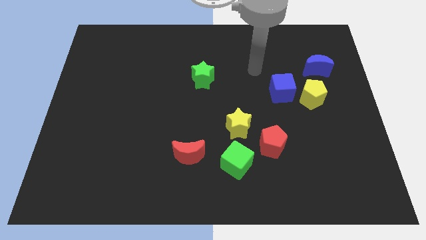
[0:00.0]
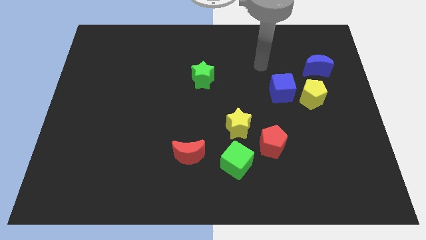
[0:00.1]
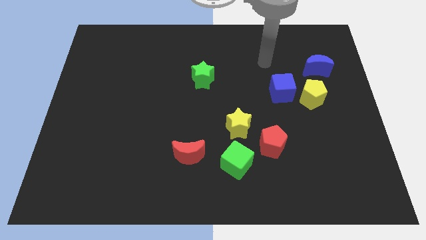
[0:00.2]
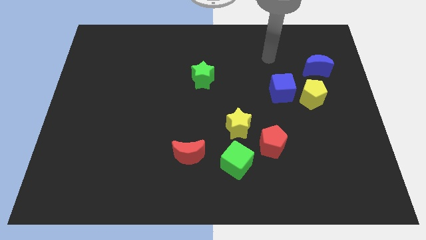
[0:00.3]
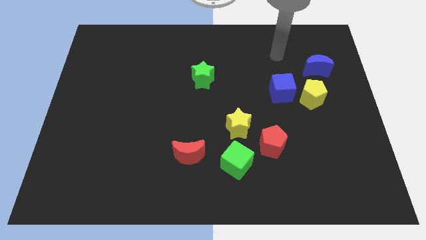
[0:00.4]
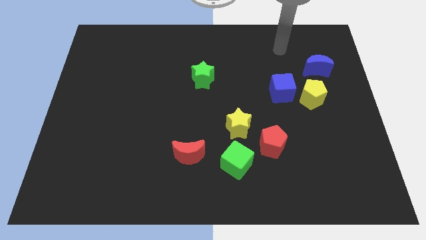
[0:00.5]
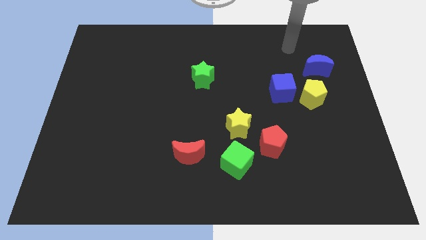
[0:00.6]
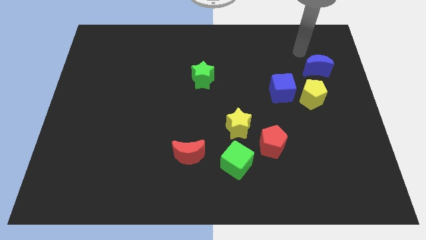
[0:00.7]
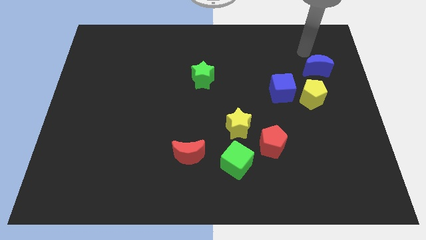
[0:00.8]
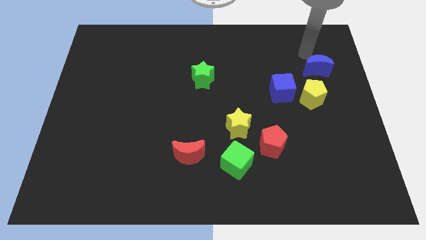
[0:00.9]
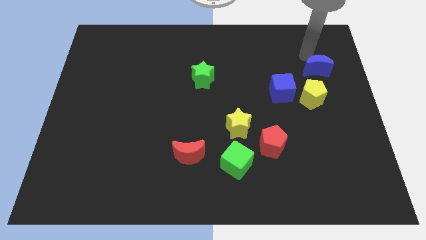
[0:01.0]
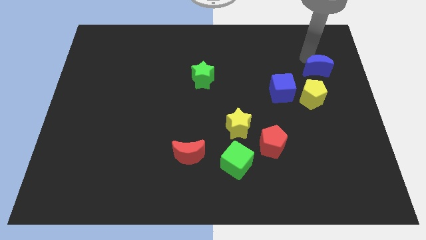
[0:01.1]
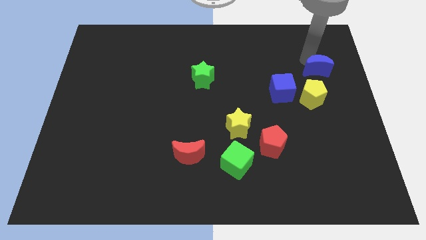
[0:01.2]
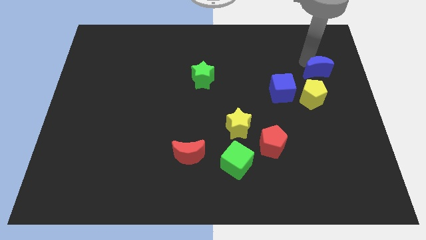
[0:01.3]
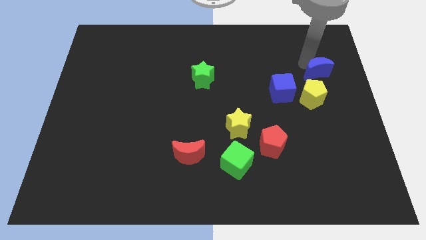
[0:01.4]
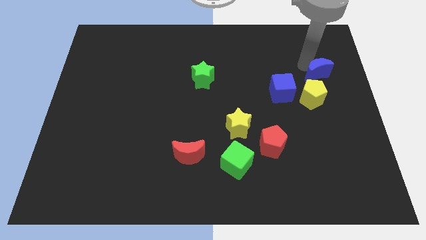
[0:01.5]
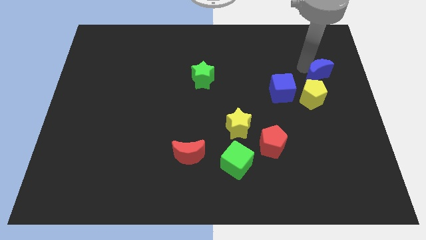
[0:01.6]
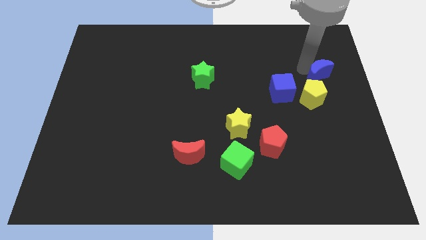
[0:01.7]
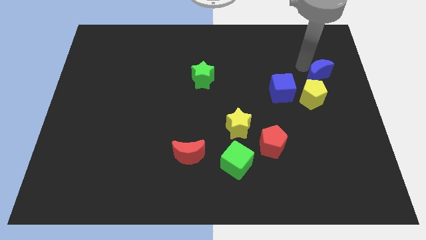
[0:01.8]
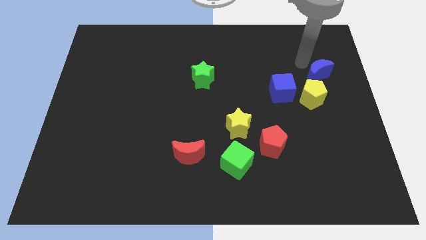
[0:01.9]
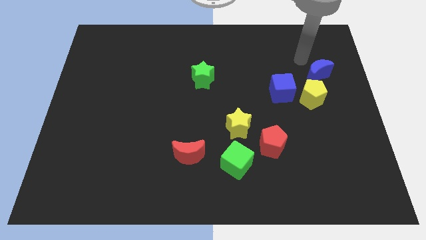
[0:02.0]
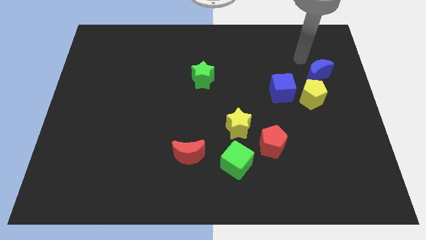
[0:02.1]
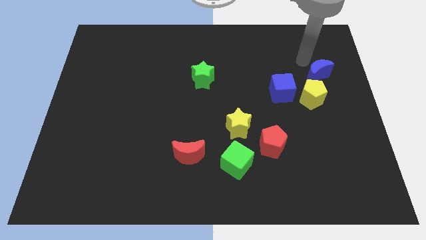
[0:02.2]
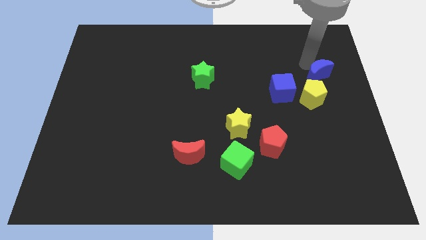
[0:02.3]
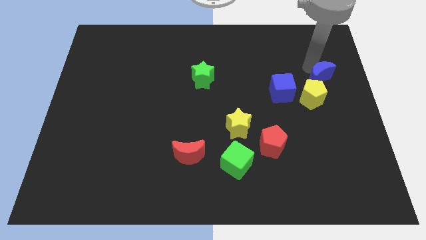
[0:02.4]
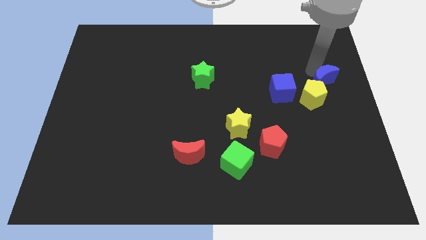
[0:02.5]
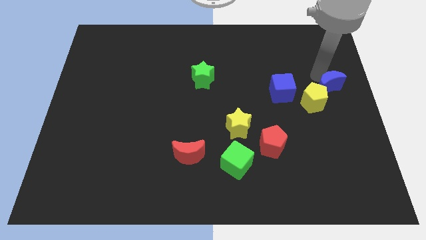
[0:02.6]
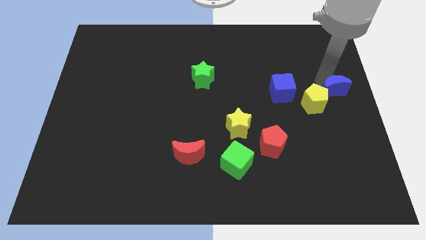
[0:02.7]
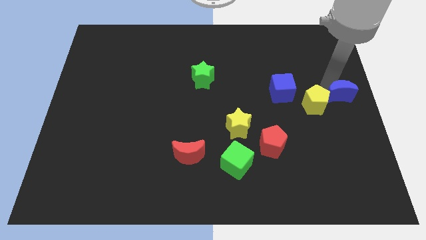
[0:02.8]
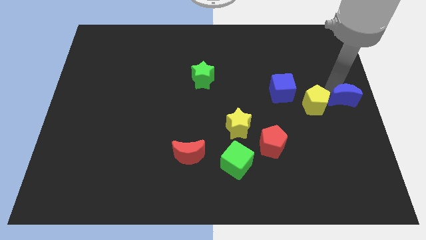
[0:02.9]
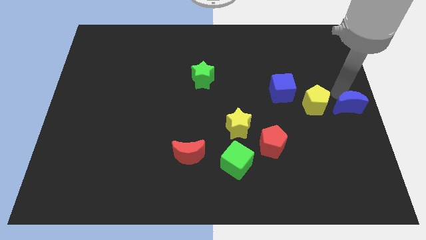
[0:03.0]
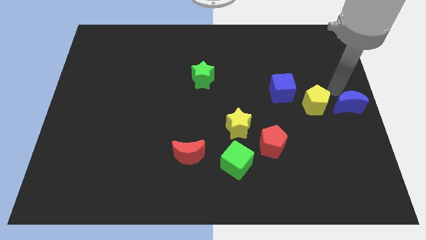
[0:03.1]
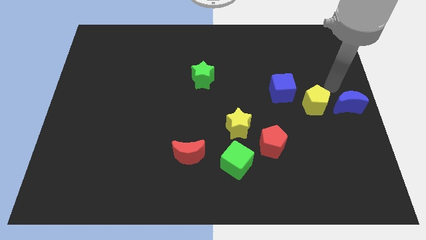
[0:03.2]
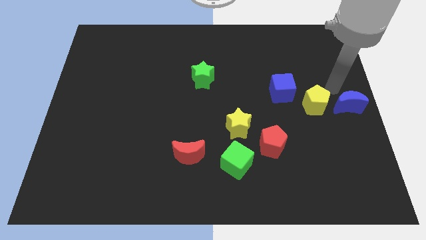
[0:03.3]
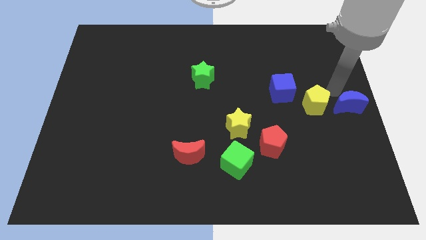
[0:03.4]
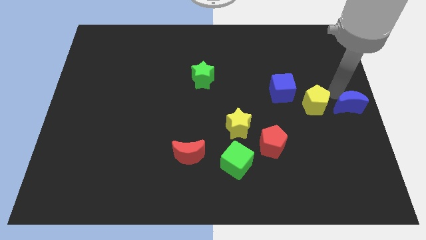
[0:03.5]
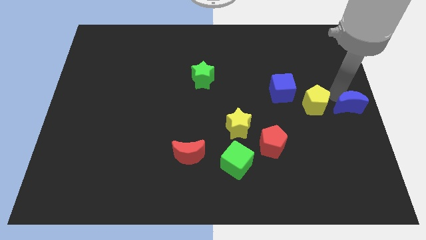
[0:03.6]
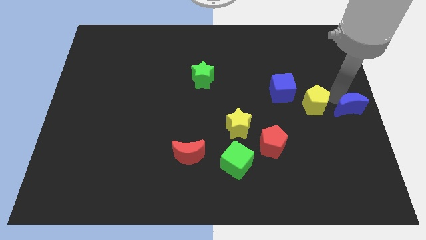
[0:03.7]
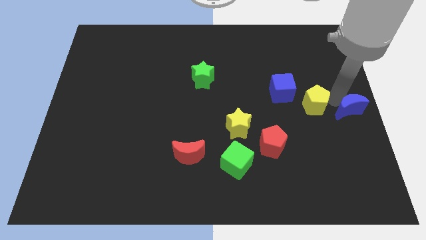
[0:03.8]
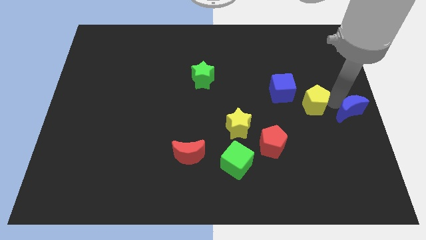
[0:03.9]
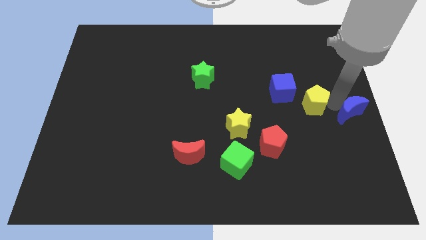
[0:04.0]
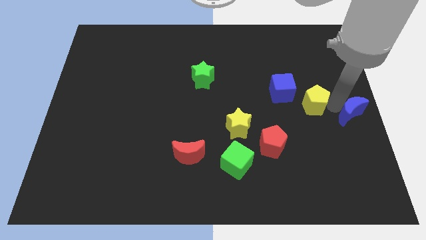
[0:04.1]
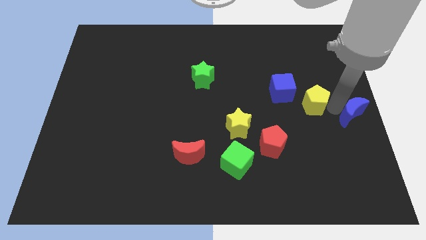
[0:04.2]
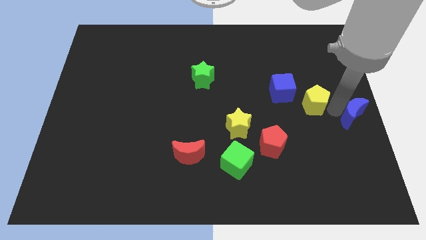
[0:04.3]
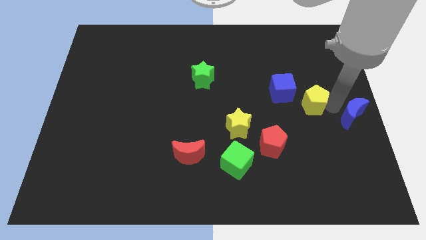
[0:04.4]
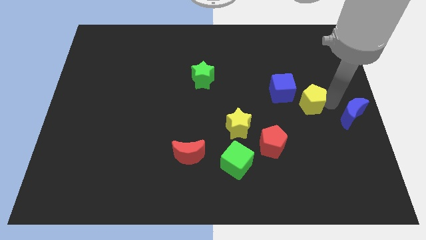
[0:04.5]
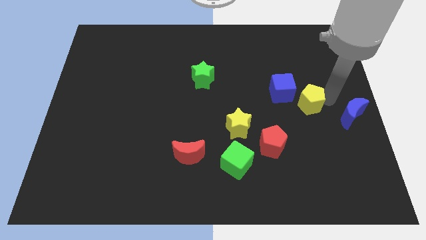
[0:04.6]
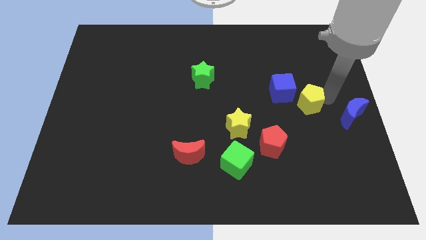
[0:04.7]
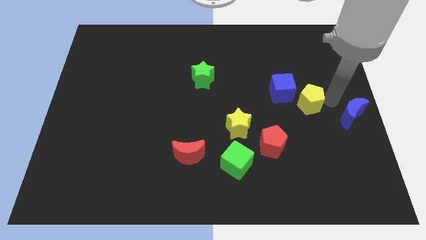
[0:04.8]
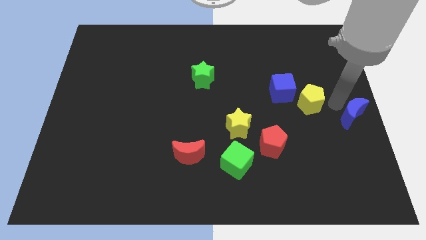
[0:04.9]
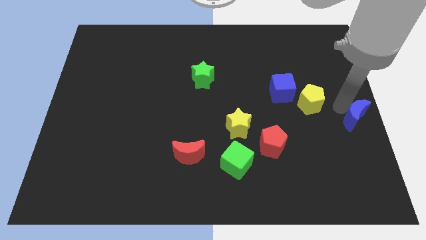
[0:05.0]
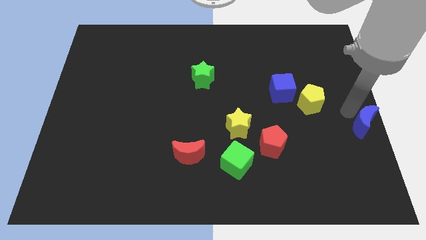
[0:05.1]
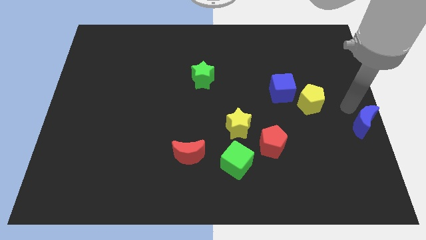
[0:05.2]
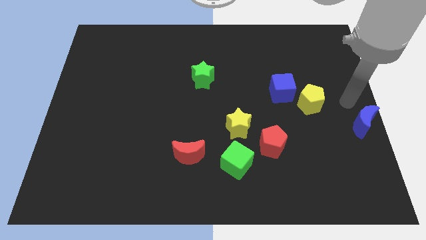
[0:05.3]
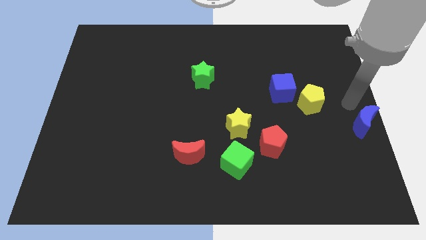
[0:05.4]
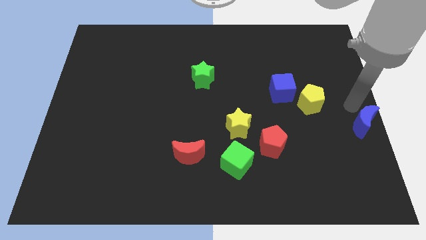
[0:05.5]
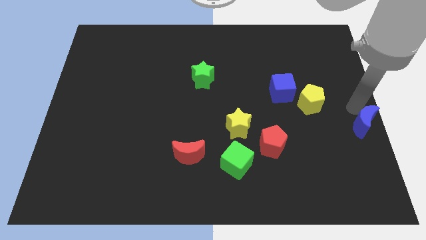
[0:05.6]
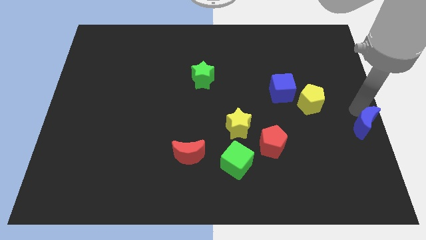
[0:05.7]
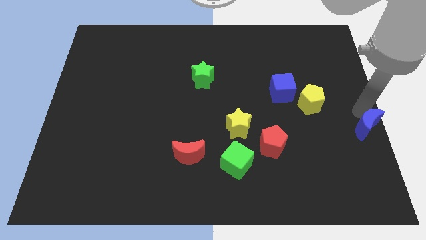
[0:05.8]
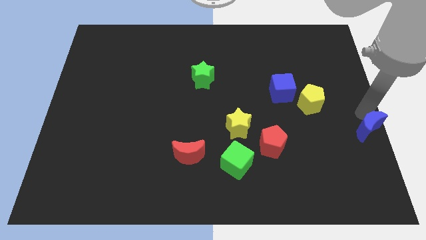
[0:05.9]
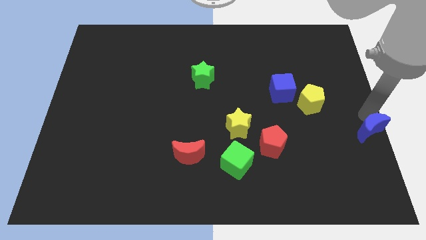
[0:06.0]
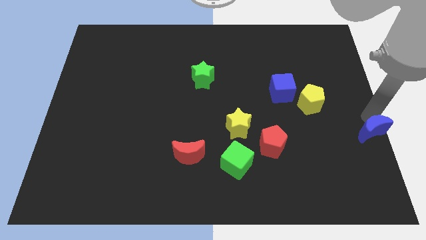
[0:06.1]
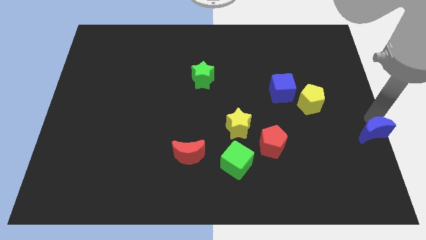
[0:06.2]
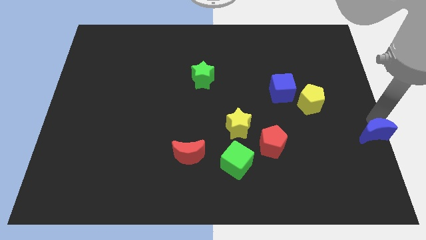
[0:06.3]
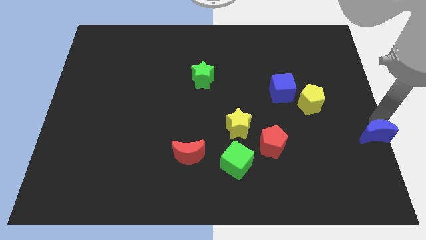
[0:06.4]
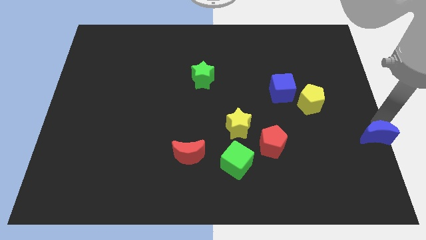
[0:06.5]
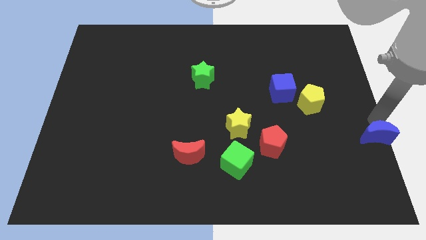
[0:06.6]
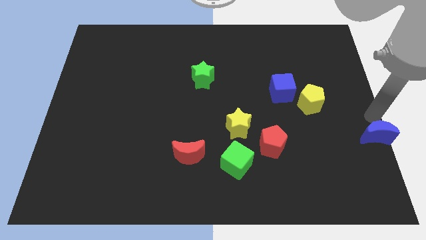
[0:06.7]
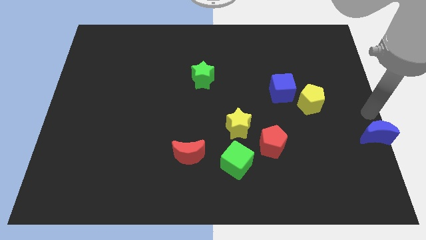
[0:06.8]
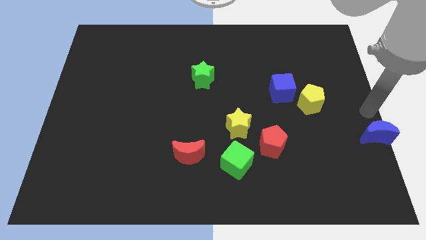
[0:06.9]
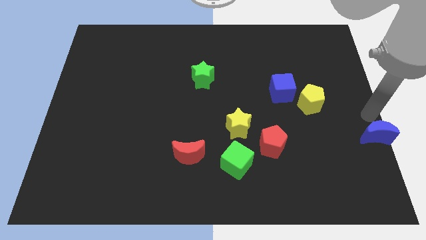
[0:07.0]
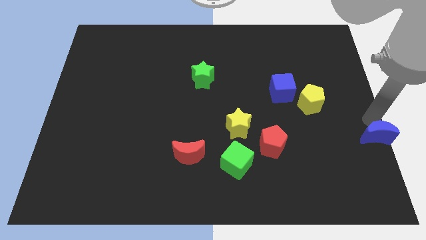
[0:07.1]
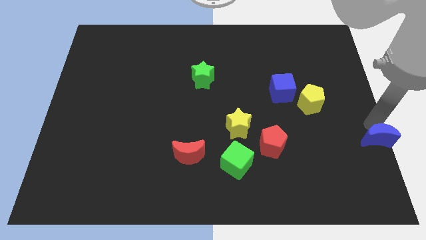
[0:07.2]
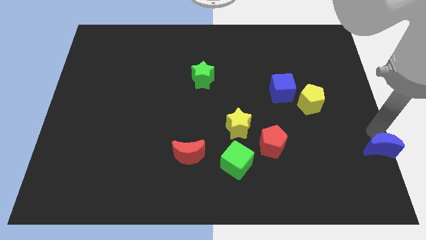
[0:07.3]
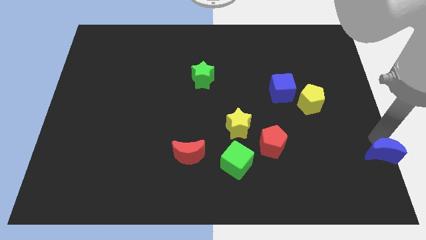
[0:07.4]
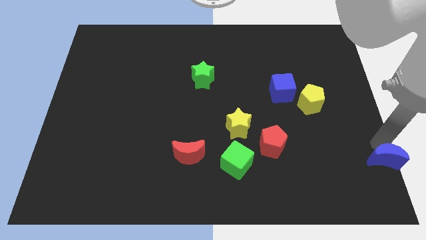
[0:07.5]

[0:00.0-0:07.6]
push the blue moon to the lower right corner

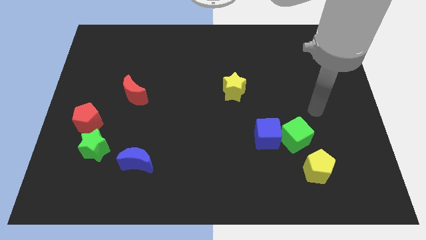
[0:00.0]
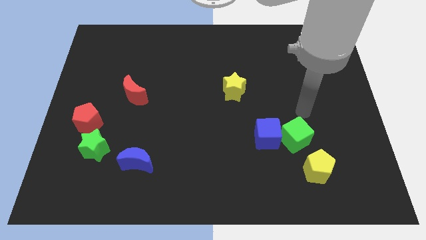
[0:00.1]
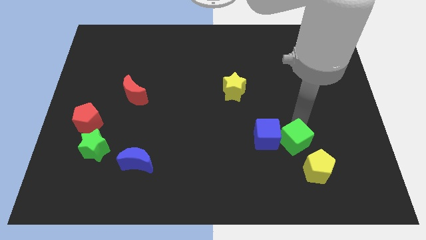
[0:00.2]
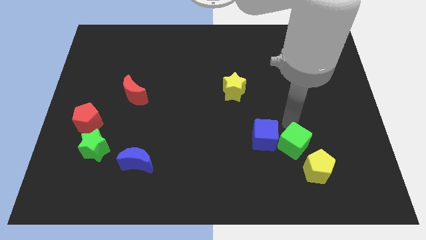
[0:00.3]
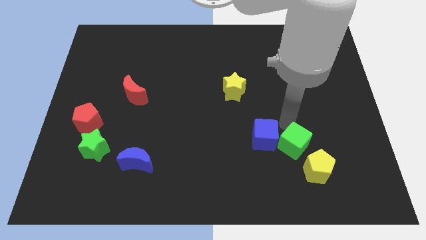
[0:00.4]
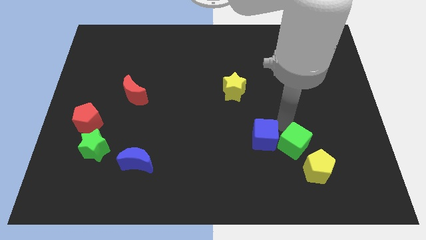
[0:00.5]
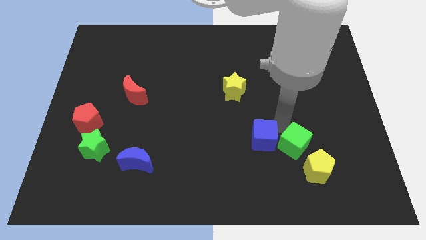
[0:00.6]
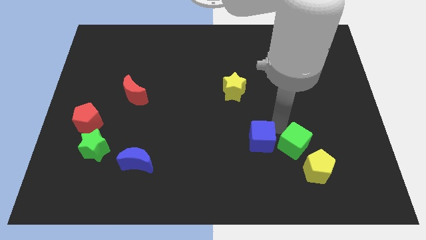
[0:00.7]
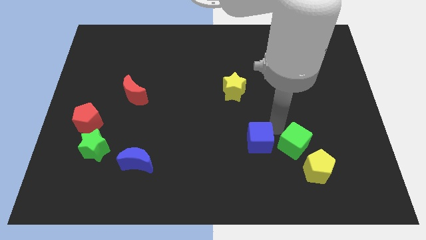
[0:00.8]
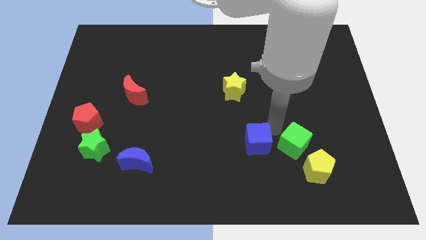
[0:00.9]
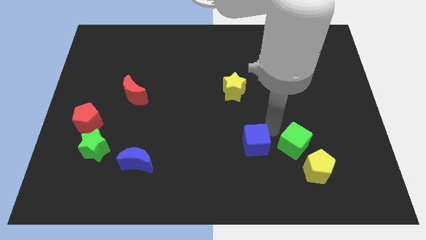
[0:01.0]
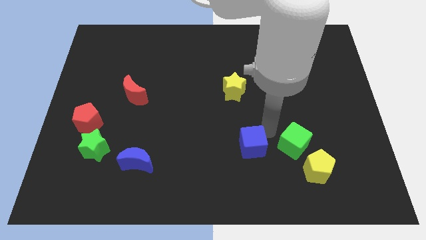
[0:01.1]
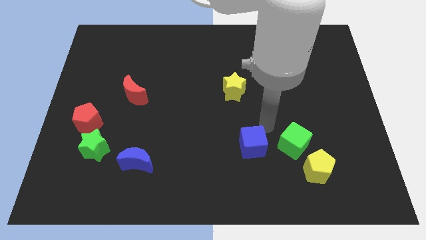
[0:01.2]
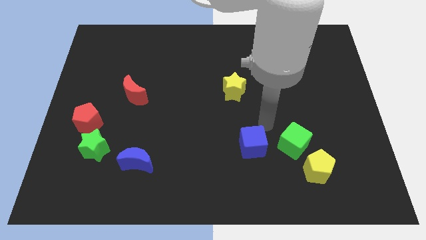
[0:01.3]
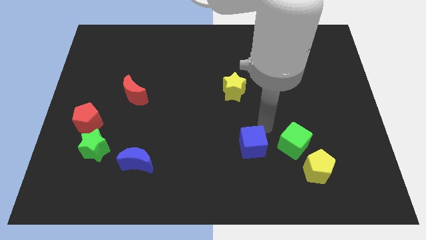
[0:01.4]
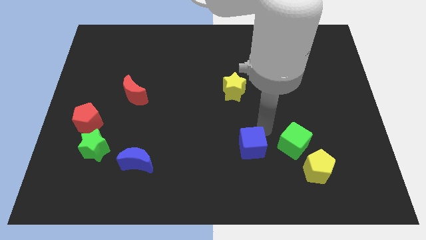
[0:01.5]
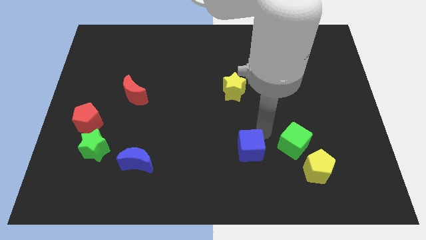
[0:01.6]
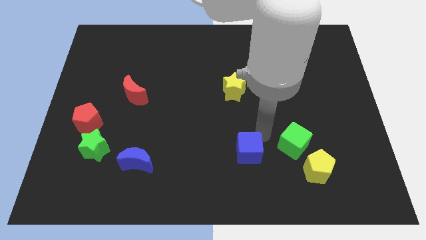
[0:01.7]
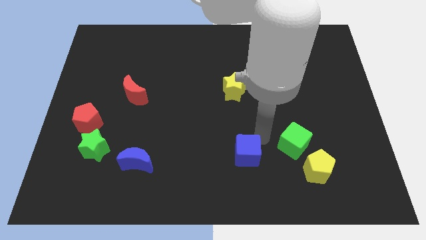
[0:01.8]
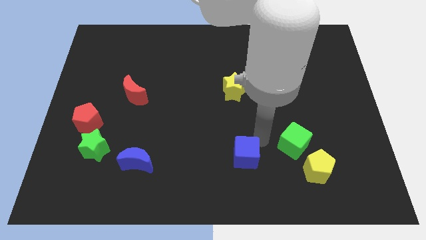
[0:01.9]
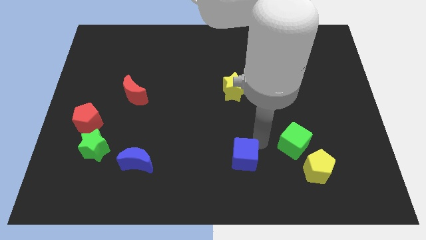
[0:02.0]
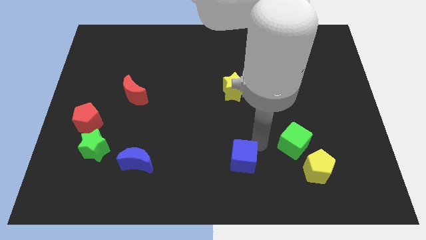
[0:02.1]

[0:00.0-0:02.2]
put the blue cube to the bottom side
